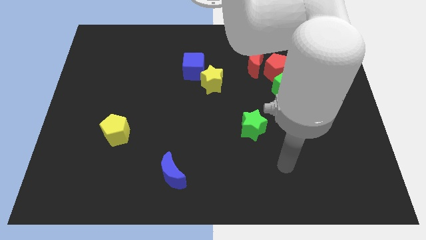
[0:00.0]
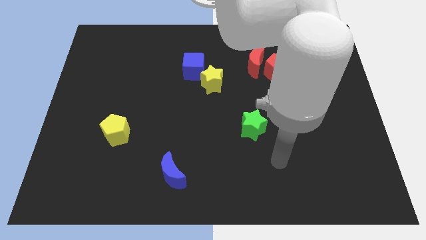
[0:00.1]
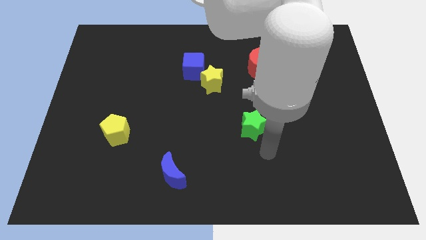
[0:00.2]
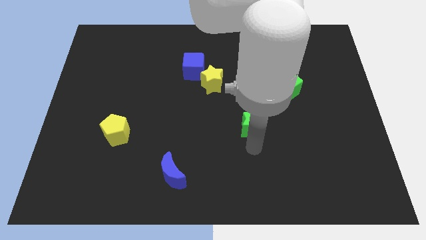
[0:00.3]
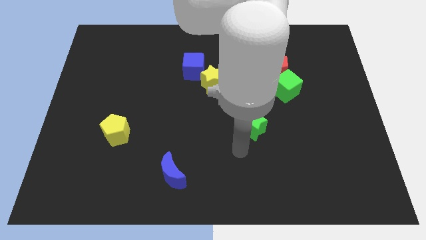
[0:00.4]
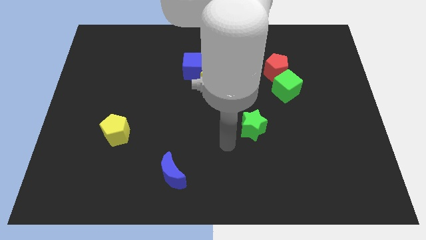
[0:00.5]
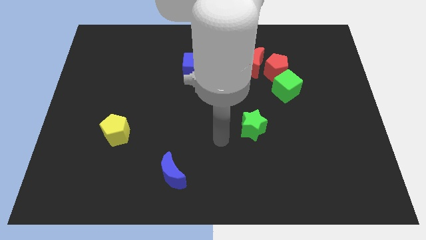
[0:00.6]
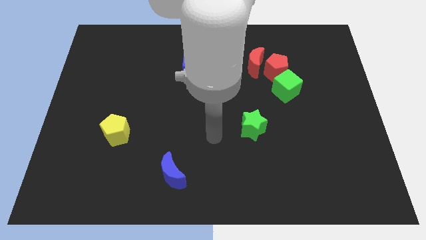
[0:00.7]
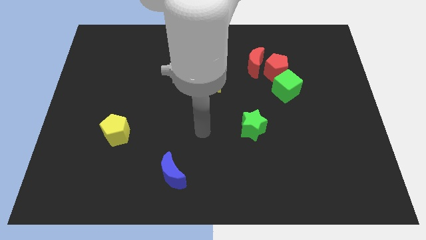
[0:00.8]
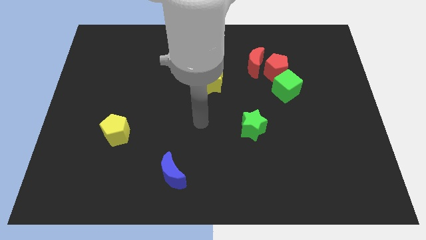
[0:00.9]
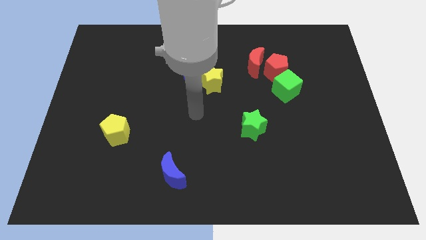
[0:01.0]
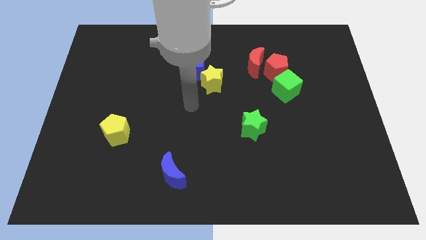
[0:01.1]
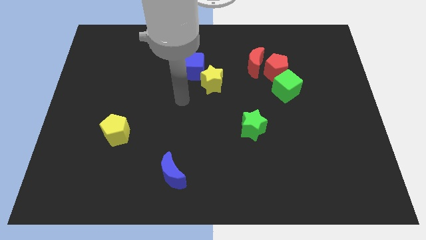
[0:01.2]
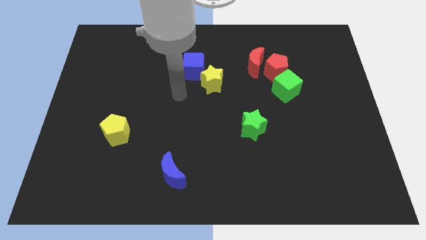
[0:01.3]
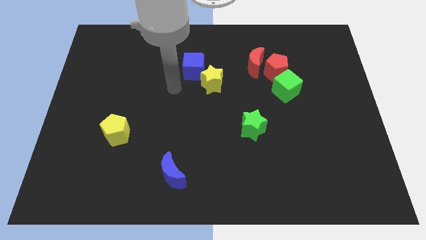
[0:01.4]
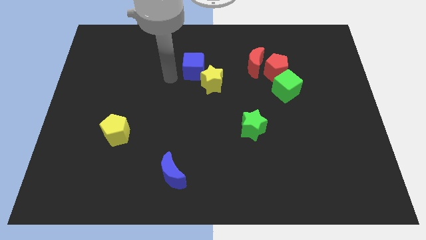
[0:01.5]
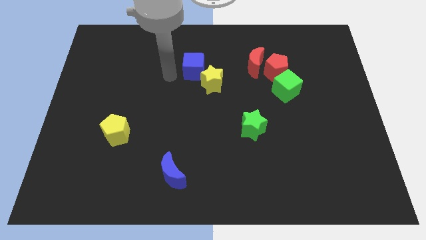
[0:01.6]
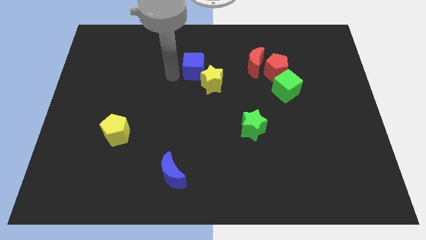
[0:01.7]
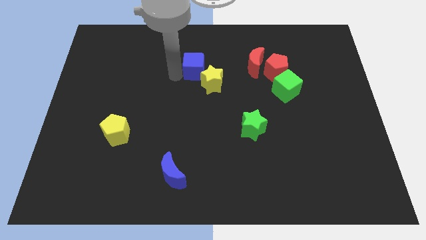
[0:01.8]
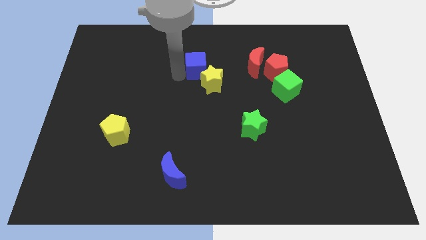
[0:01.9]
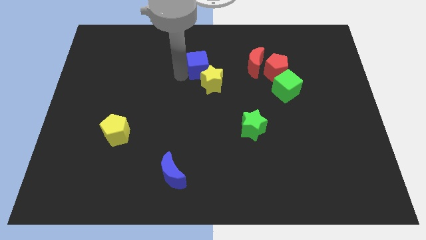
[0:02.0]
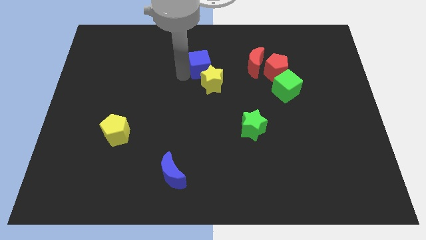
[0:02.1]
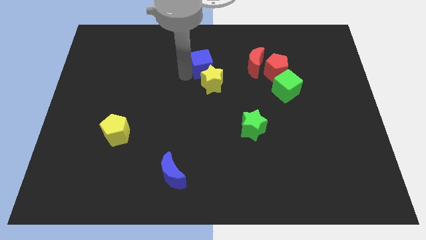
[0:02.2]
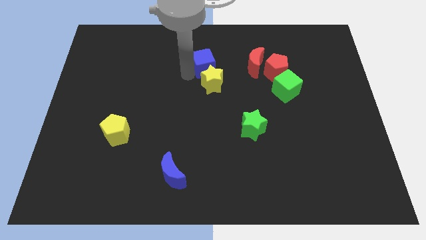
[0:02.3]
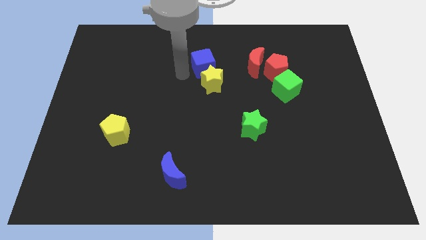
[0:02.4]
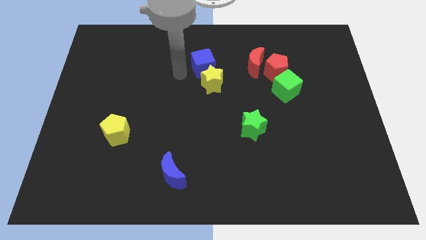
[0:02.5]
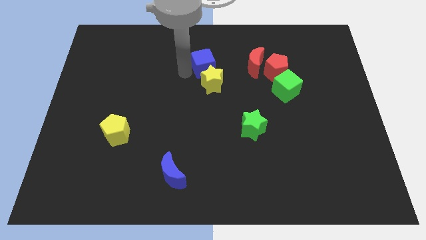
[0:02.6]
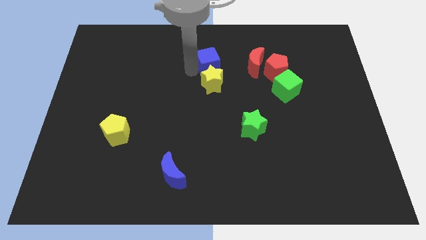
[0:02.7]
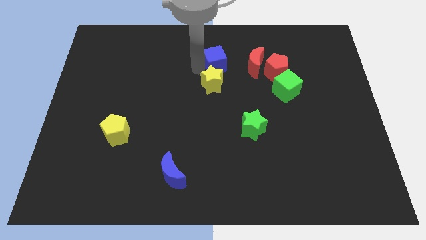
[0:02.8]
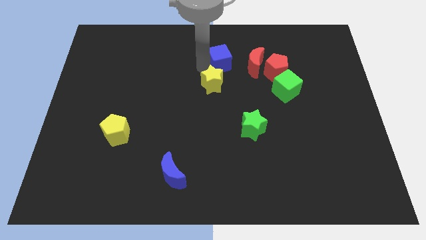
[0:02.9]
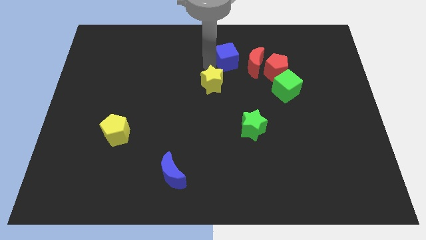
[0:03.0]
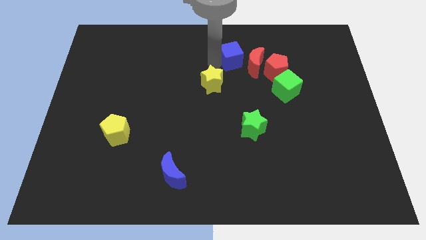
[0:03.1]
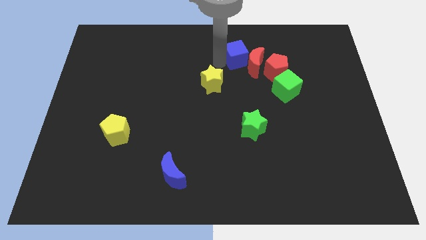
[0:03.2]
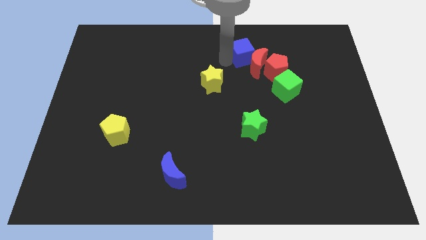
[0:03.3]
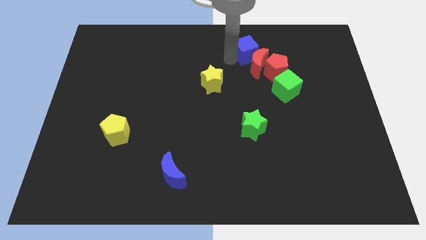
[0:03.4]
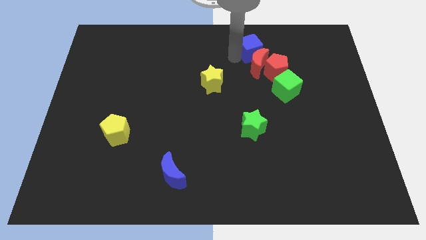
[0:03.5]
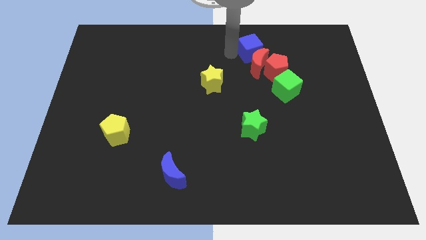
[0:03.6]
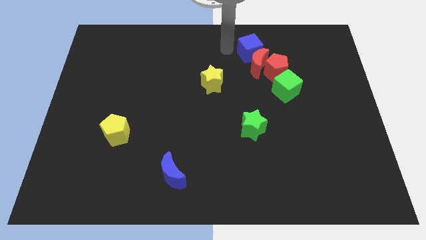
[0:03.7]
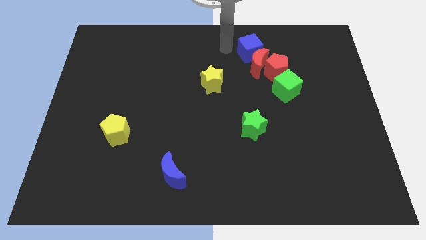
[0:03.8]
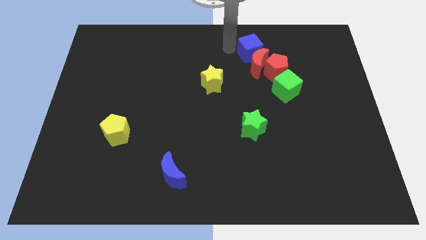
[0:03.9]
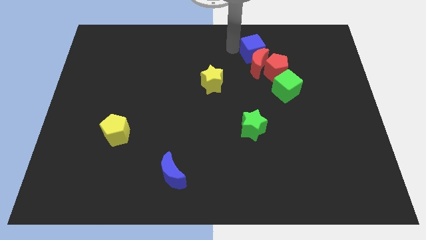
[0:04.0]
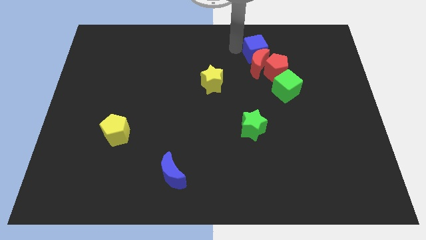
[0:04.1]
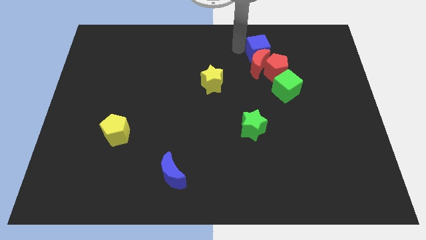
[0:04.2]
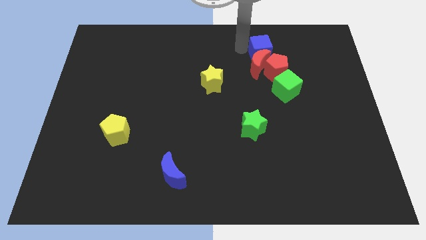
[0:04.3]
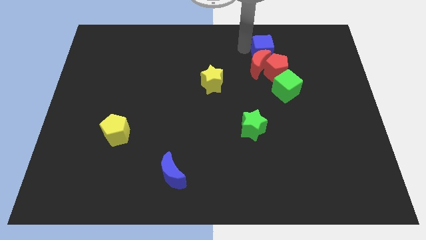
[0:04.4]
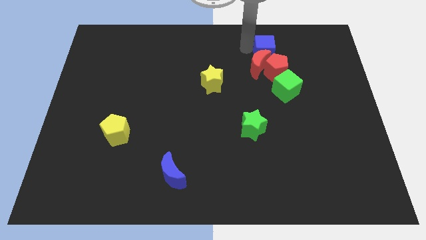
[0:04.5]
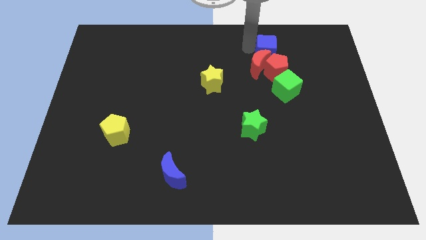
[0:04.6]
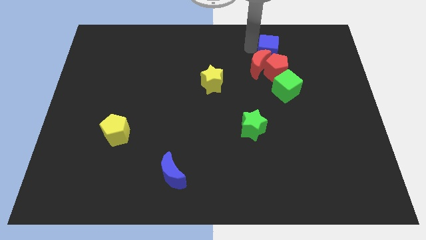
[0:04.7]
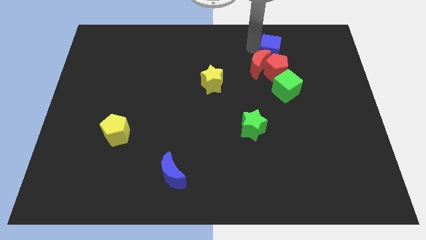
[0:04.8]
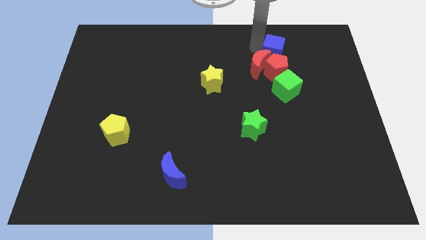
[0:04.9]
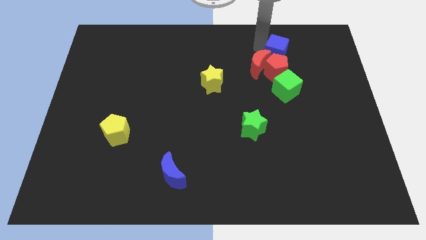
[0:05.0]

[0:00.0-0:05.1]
push the blue cube right

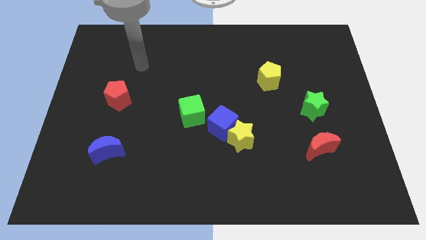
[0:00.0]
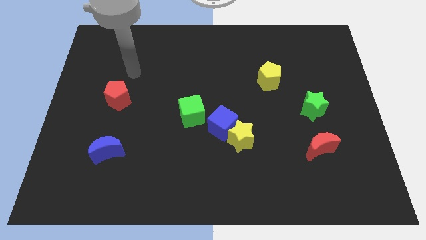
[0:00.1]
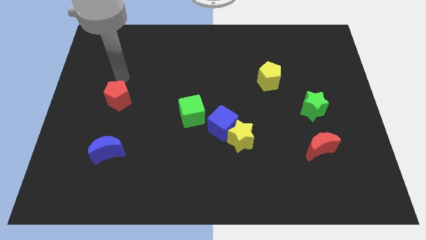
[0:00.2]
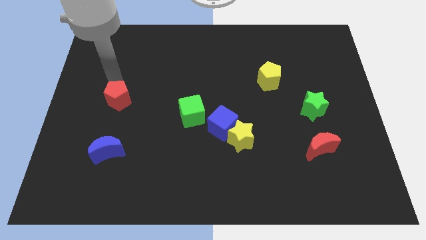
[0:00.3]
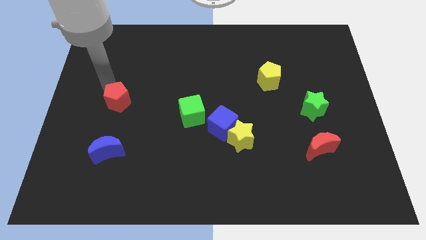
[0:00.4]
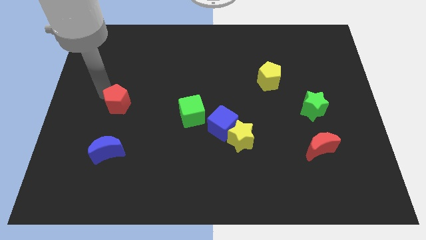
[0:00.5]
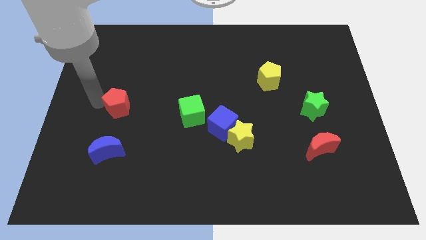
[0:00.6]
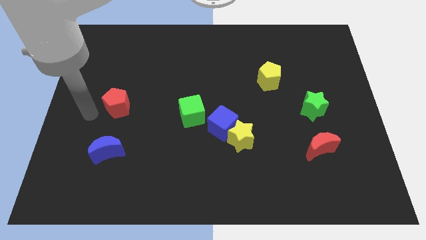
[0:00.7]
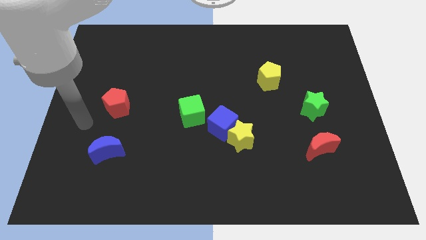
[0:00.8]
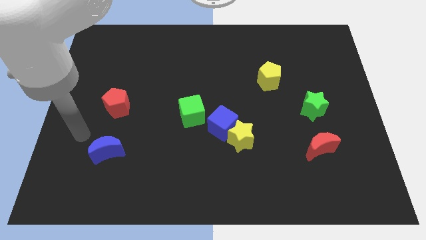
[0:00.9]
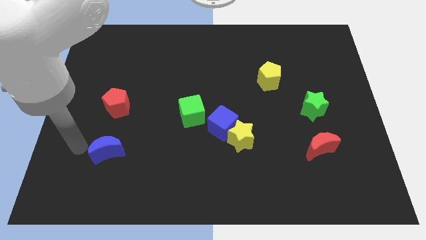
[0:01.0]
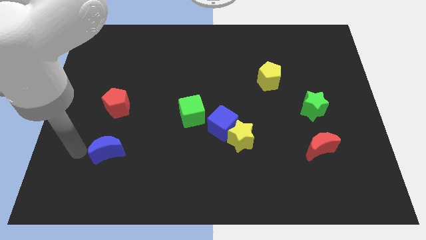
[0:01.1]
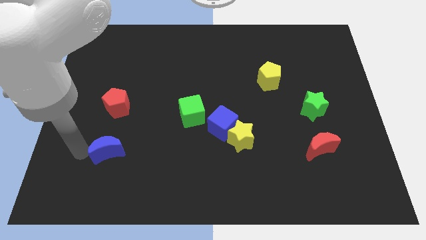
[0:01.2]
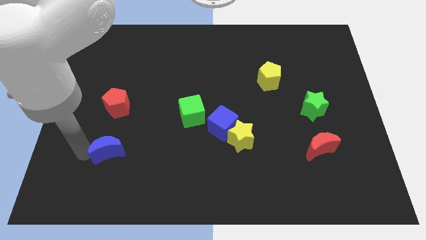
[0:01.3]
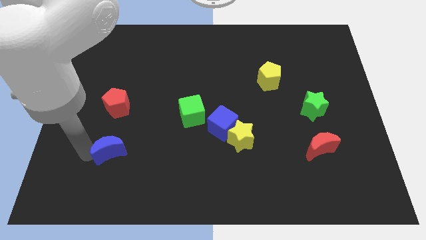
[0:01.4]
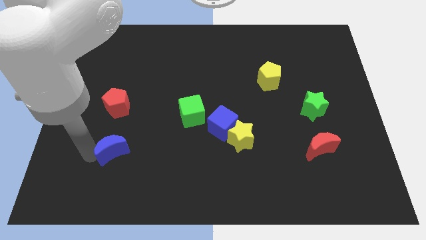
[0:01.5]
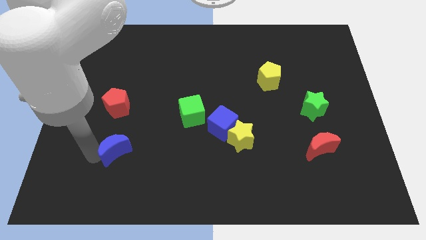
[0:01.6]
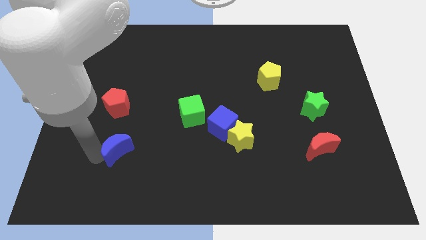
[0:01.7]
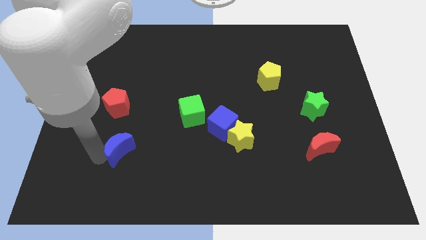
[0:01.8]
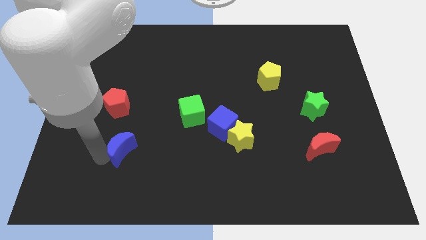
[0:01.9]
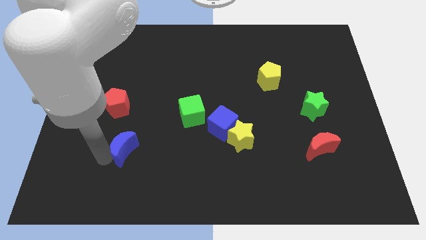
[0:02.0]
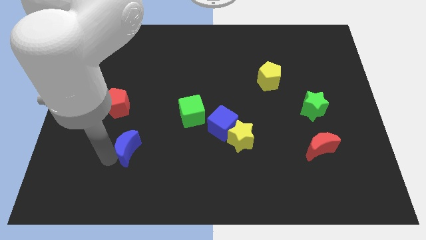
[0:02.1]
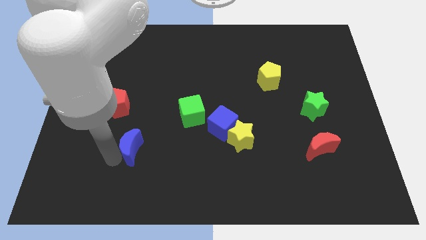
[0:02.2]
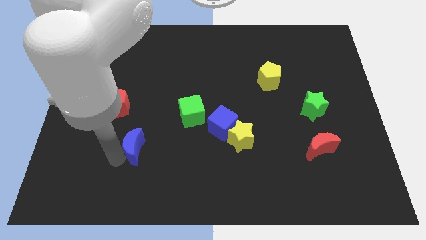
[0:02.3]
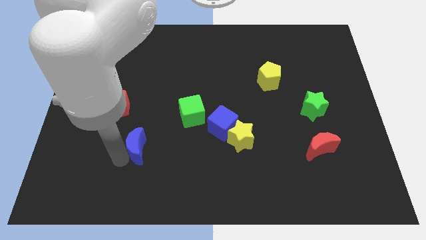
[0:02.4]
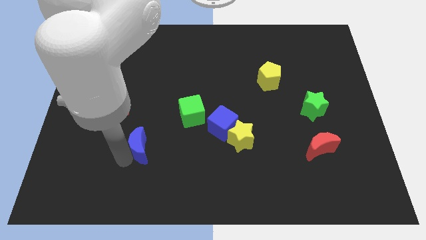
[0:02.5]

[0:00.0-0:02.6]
move the blue moon a little to the right

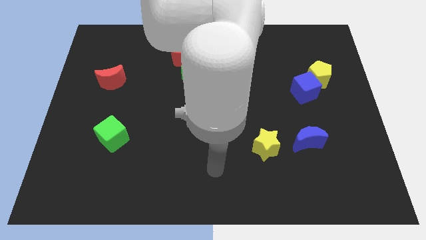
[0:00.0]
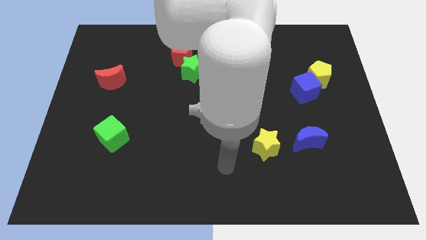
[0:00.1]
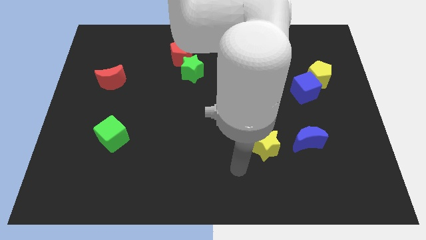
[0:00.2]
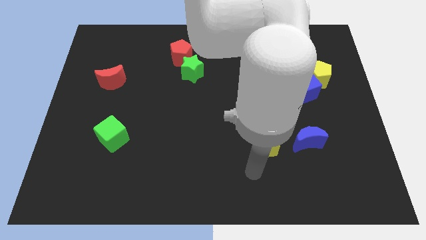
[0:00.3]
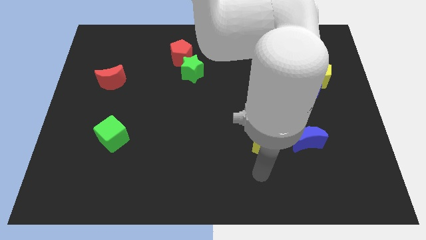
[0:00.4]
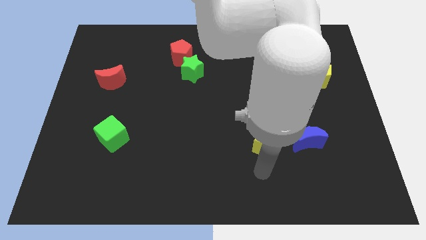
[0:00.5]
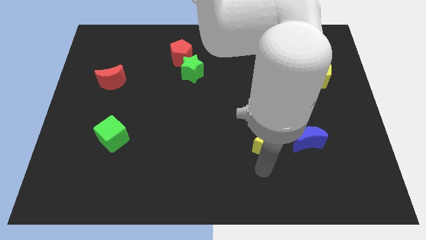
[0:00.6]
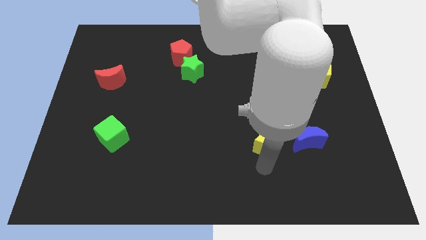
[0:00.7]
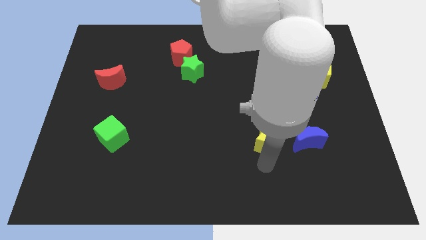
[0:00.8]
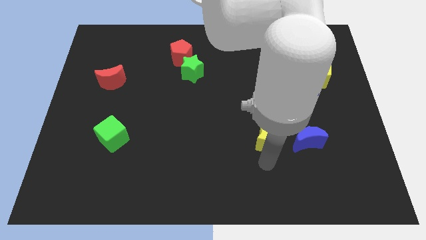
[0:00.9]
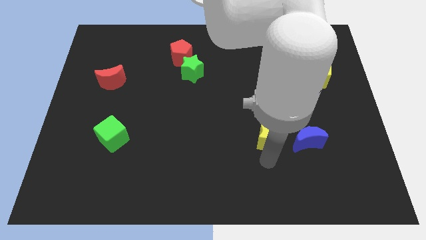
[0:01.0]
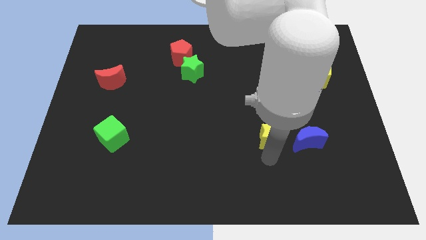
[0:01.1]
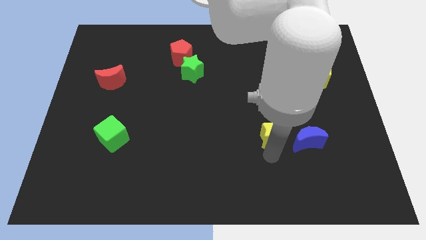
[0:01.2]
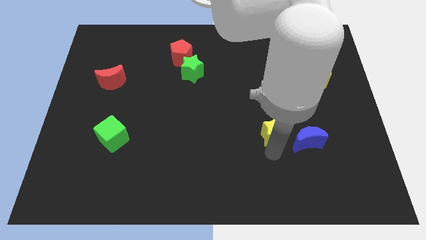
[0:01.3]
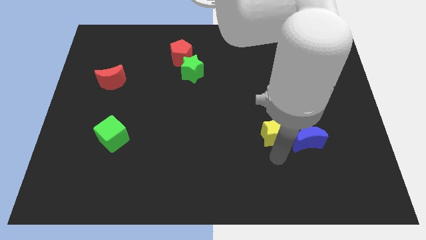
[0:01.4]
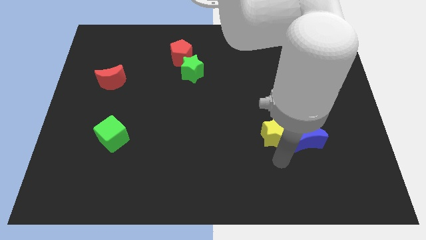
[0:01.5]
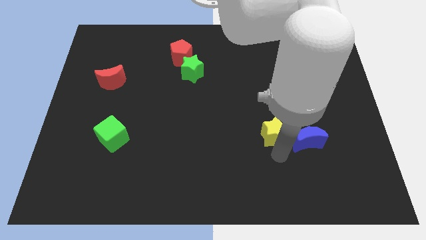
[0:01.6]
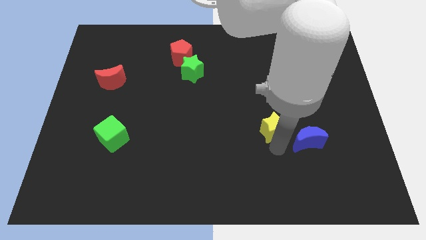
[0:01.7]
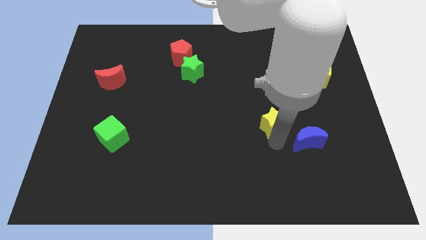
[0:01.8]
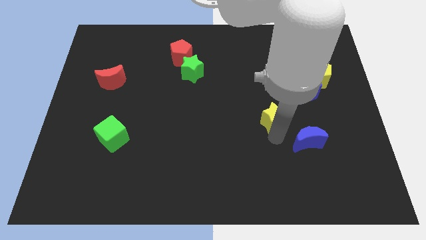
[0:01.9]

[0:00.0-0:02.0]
slightly move the yellow star up
